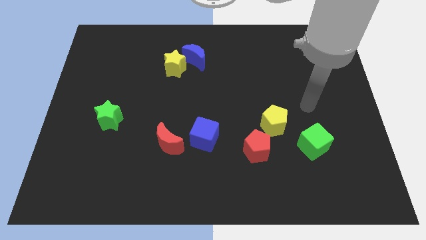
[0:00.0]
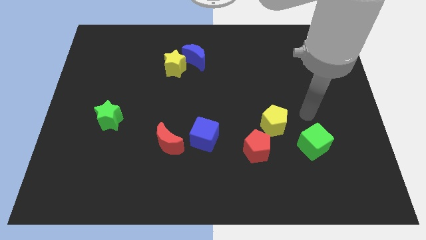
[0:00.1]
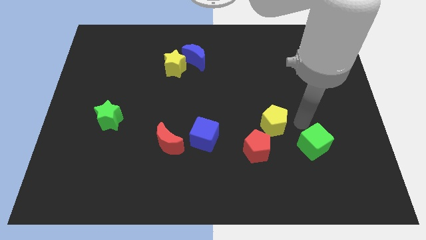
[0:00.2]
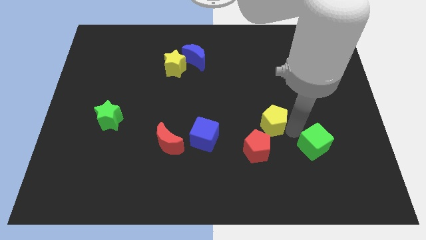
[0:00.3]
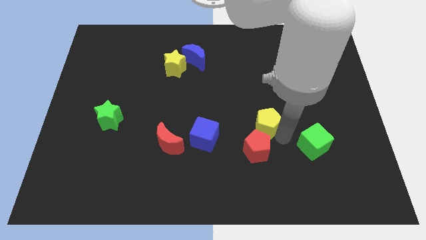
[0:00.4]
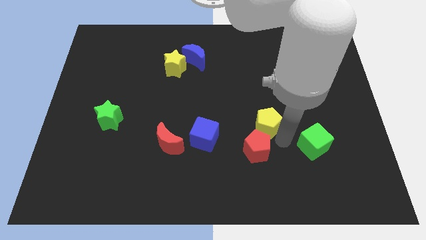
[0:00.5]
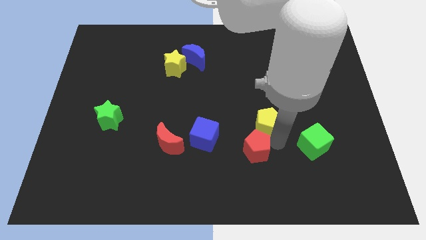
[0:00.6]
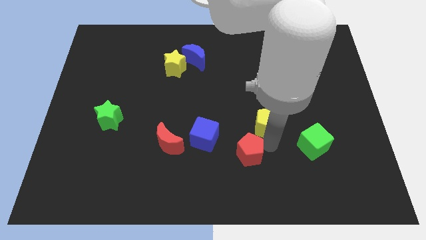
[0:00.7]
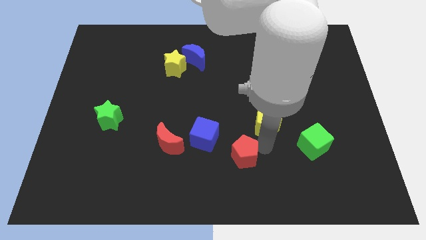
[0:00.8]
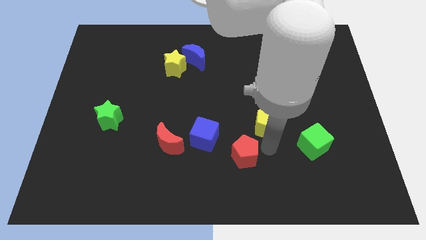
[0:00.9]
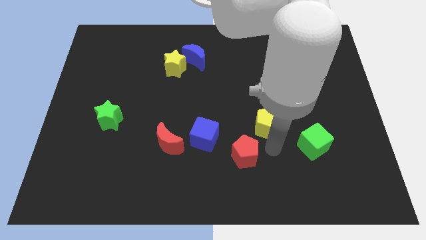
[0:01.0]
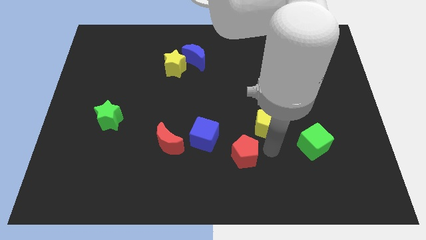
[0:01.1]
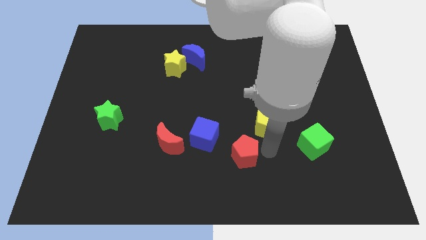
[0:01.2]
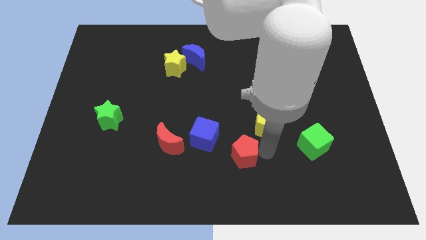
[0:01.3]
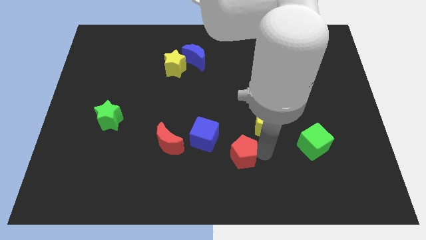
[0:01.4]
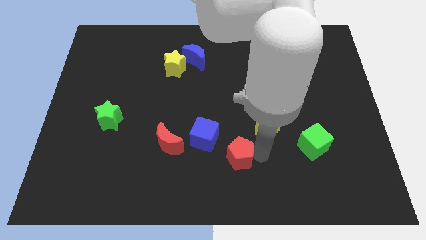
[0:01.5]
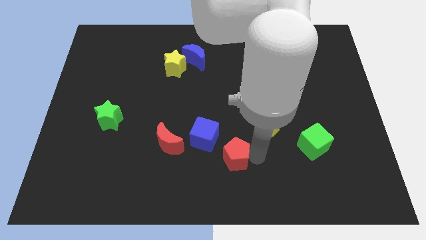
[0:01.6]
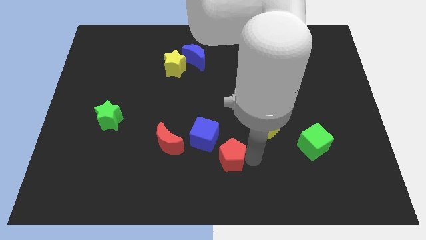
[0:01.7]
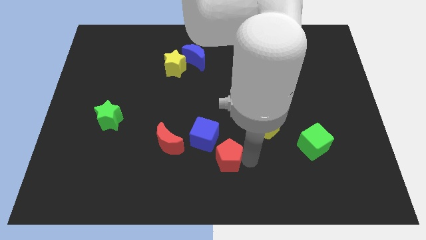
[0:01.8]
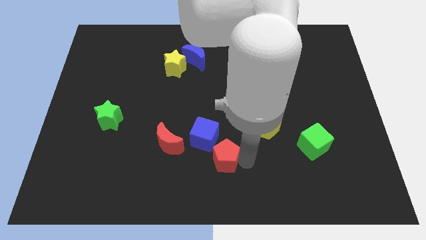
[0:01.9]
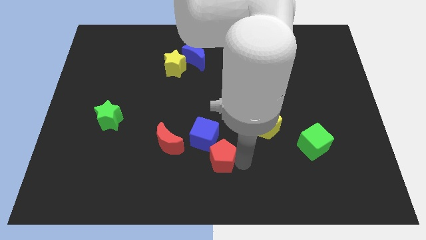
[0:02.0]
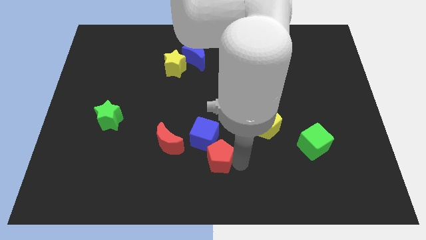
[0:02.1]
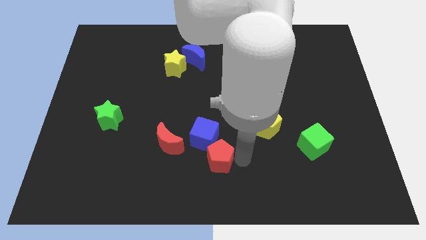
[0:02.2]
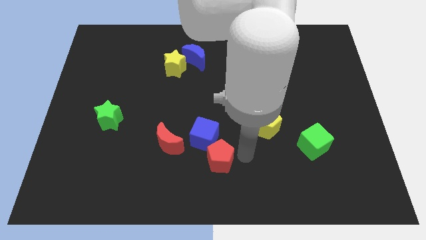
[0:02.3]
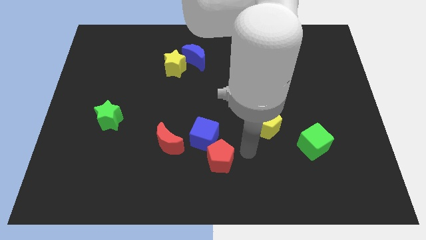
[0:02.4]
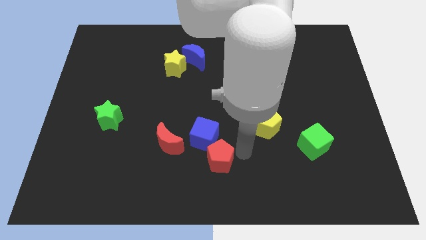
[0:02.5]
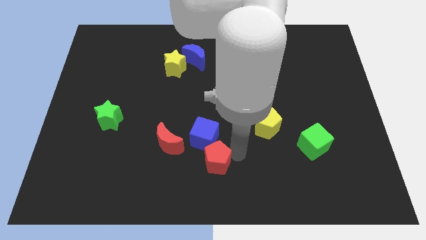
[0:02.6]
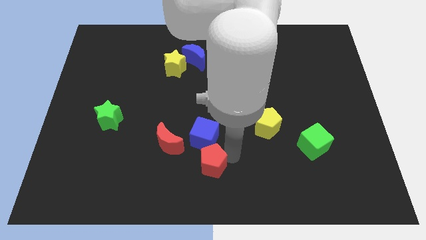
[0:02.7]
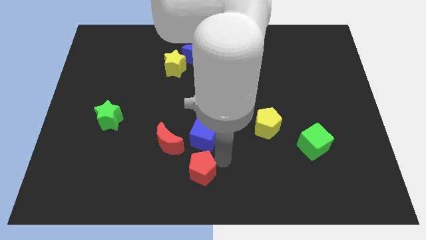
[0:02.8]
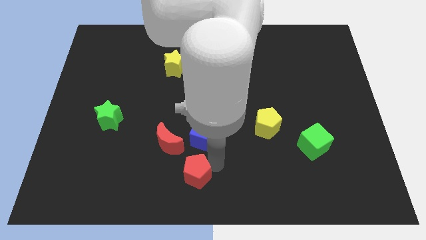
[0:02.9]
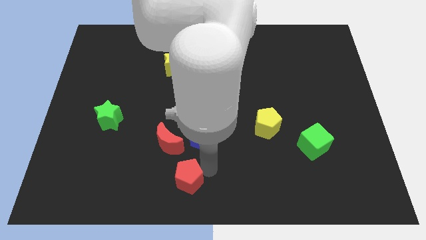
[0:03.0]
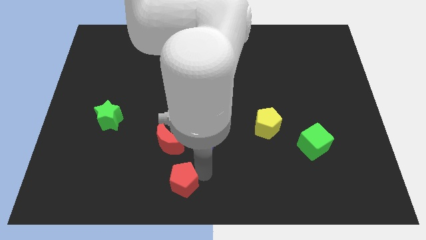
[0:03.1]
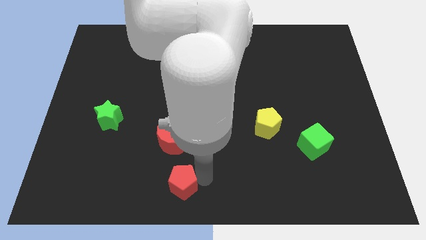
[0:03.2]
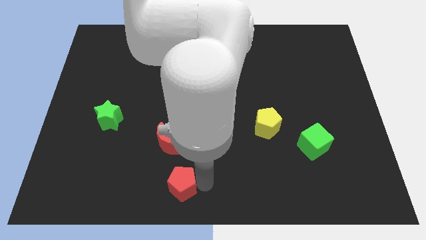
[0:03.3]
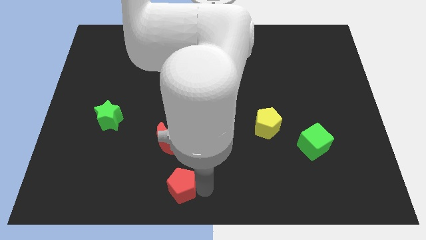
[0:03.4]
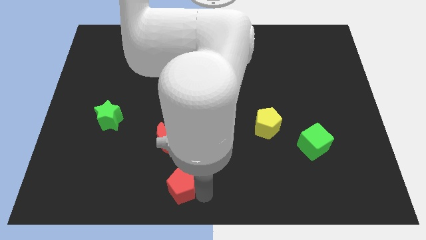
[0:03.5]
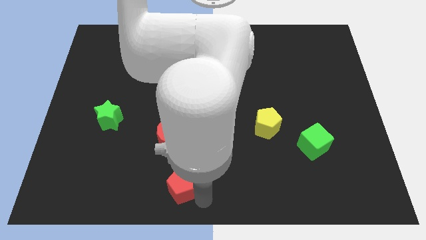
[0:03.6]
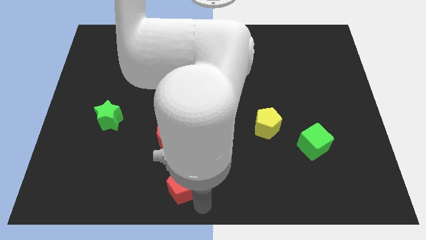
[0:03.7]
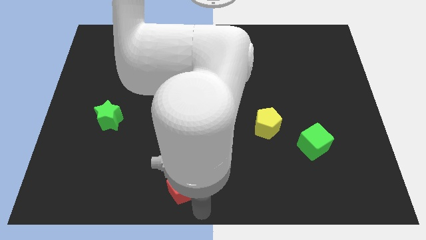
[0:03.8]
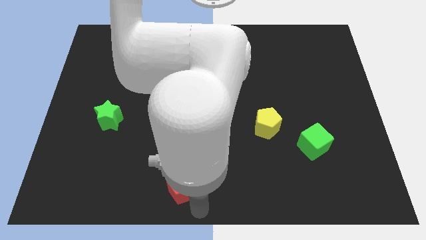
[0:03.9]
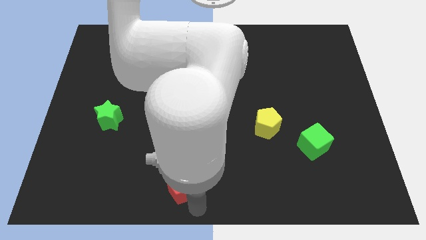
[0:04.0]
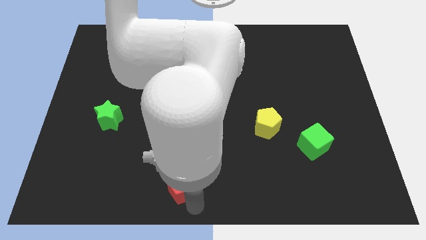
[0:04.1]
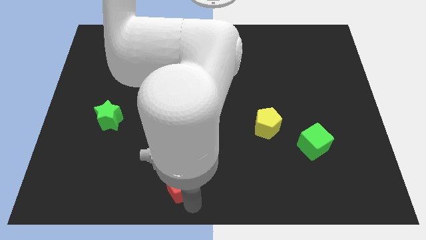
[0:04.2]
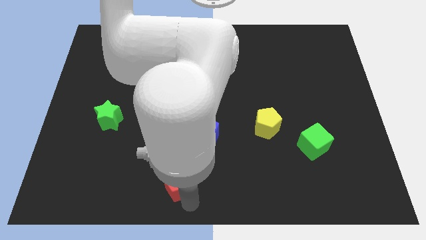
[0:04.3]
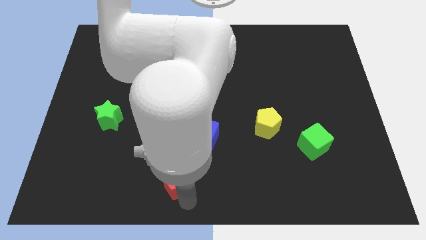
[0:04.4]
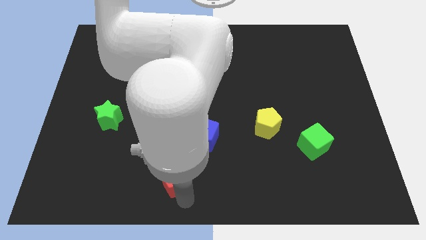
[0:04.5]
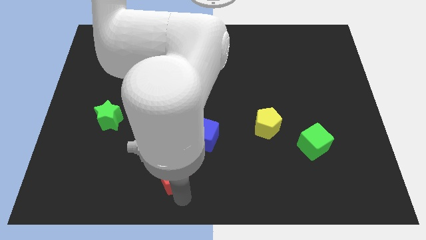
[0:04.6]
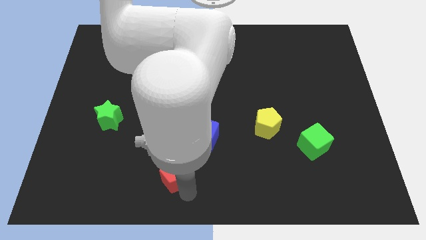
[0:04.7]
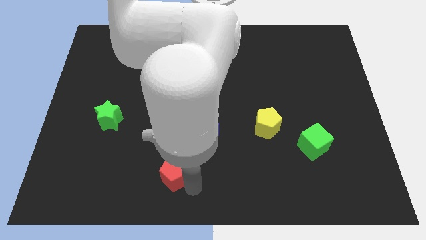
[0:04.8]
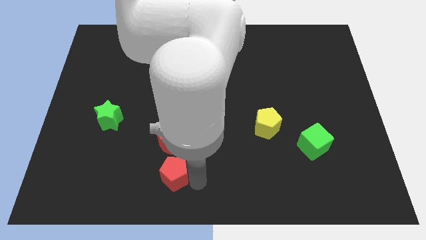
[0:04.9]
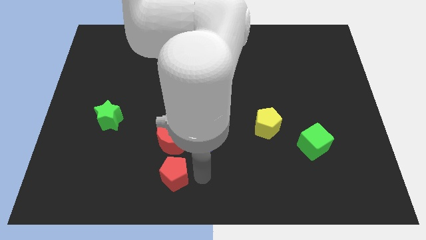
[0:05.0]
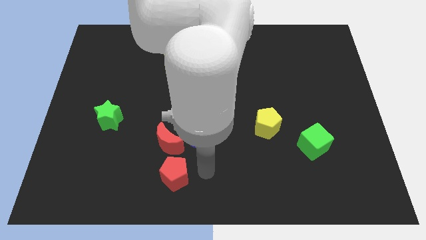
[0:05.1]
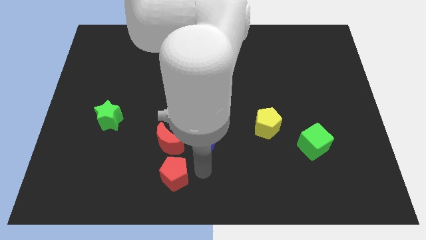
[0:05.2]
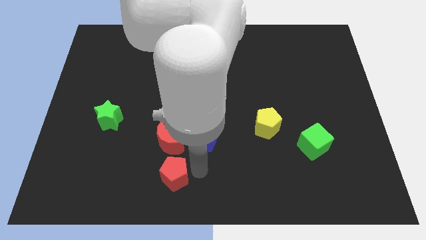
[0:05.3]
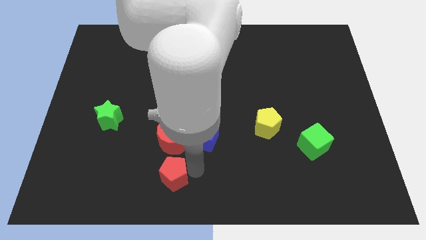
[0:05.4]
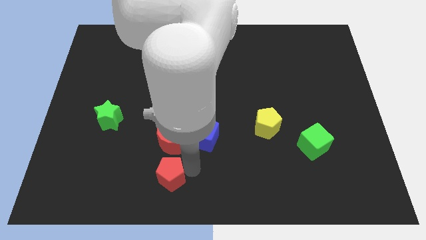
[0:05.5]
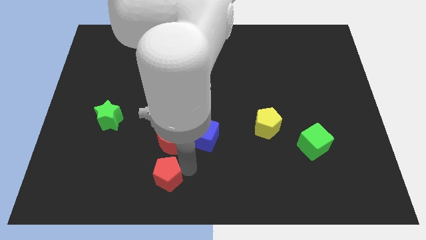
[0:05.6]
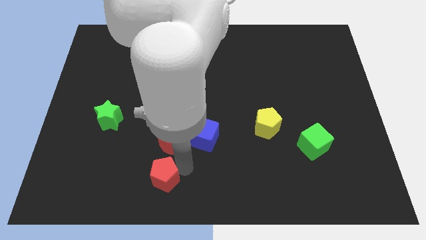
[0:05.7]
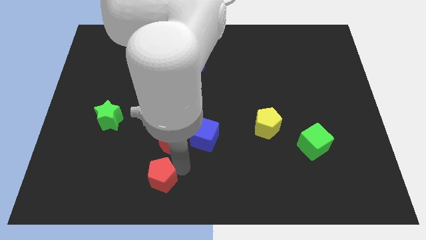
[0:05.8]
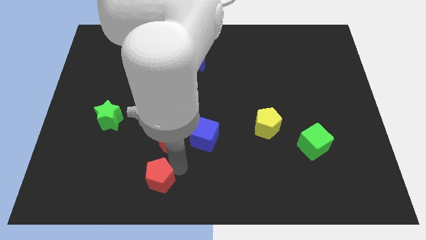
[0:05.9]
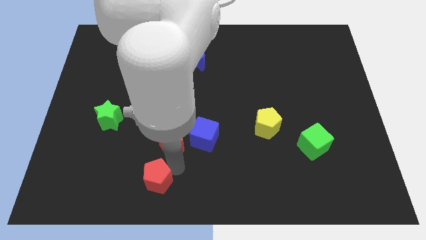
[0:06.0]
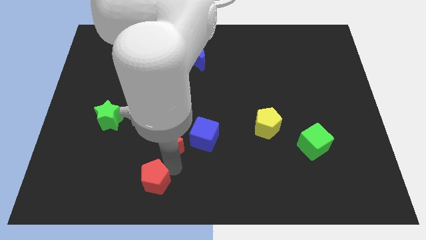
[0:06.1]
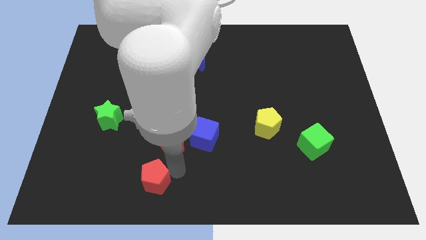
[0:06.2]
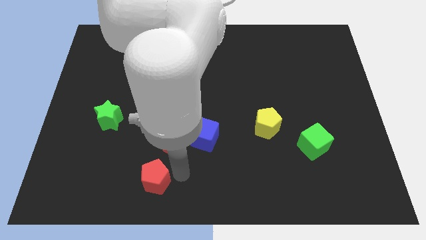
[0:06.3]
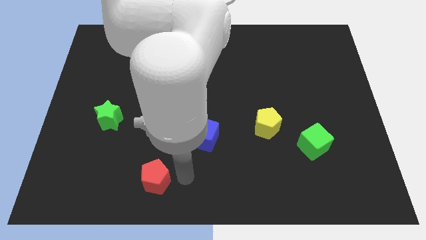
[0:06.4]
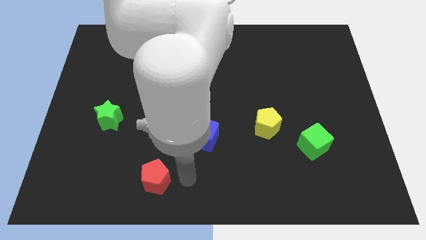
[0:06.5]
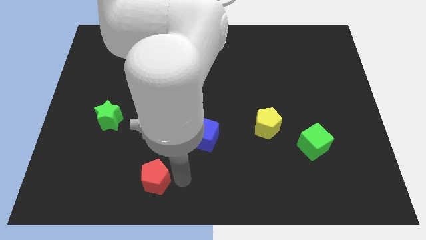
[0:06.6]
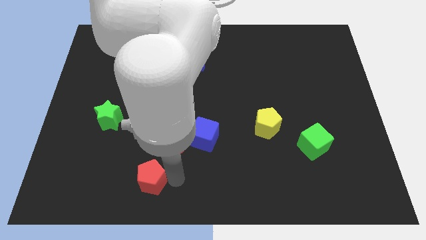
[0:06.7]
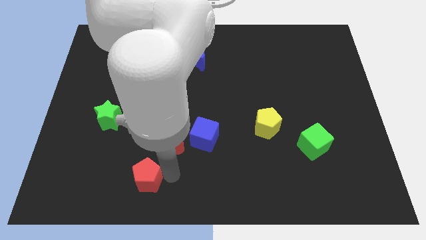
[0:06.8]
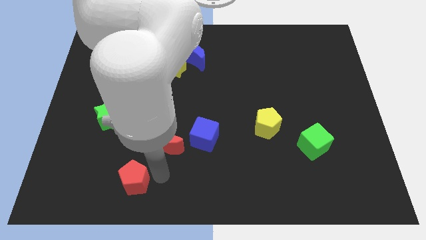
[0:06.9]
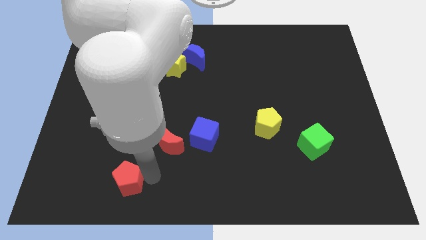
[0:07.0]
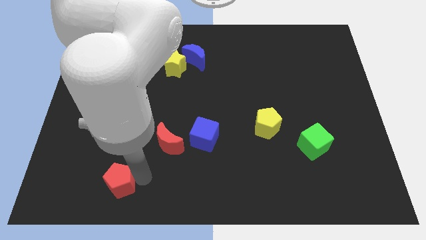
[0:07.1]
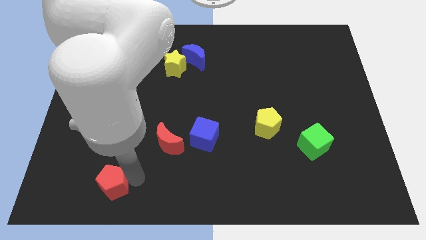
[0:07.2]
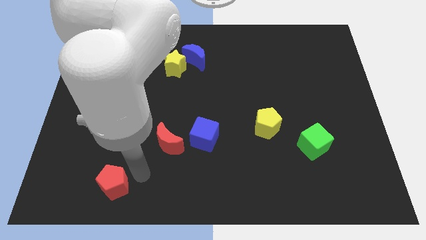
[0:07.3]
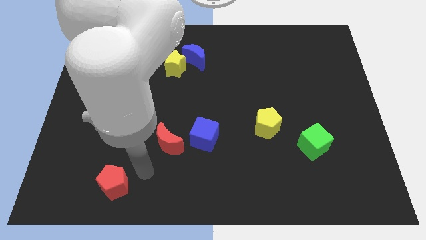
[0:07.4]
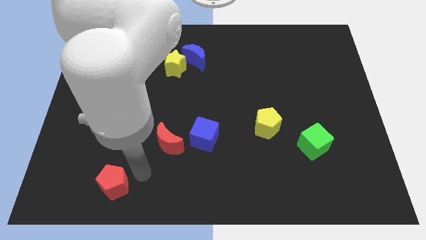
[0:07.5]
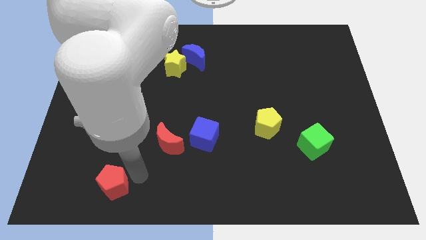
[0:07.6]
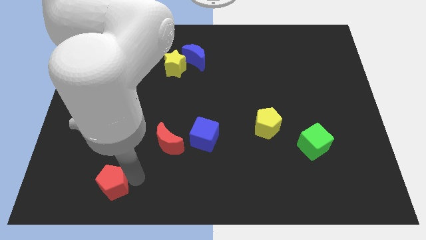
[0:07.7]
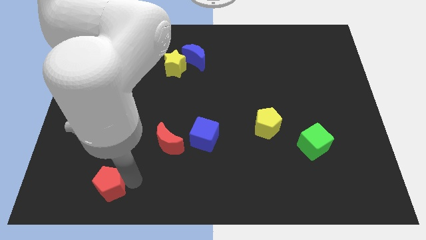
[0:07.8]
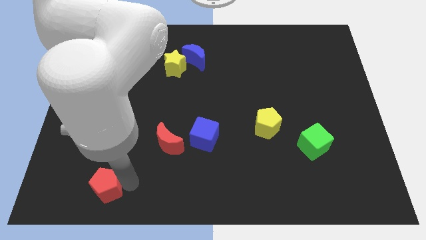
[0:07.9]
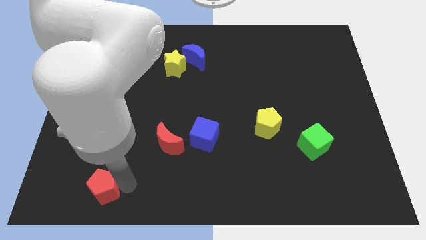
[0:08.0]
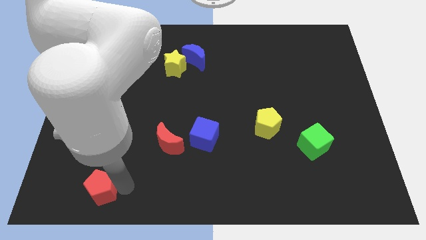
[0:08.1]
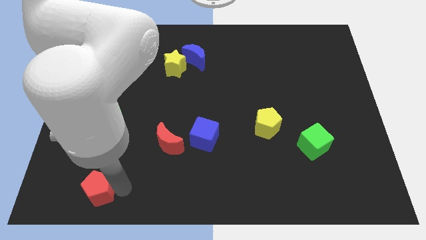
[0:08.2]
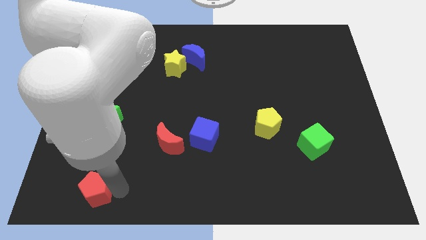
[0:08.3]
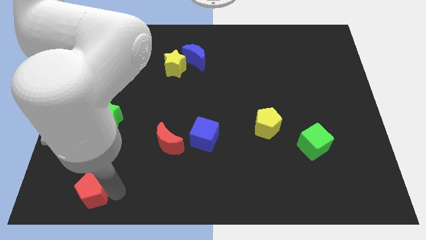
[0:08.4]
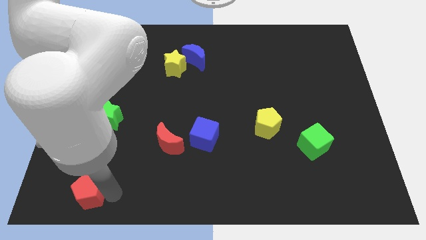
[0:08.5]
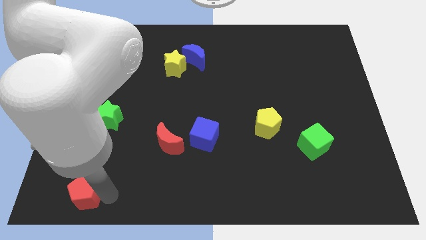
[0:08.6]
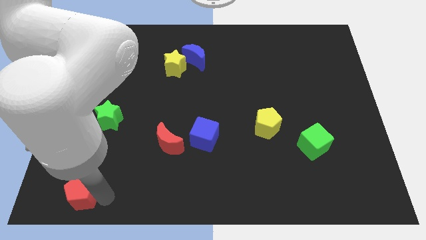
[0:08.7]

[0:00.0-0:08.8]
put the red pentagon to the bottom left of the board
